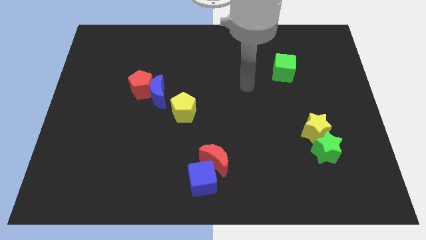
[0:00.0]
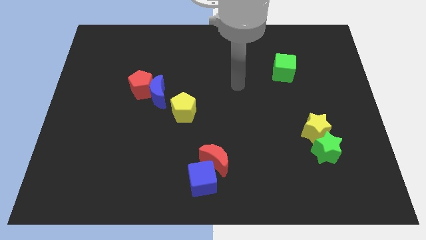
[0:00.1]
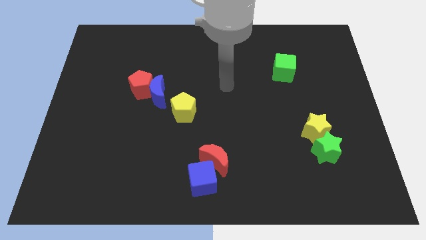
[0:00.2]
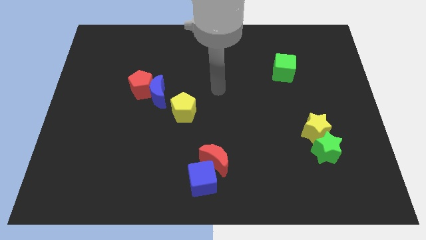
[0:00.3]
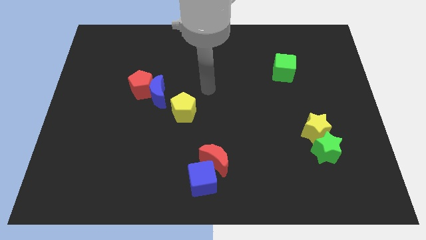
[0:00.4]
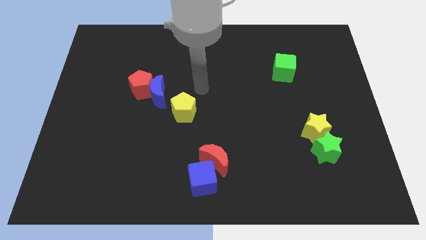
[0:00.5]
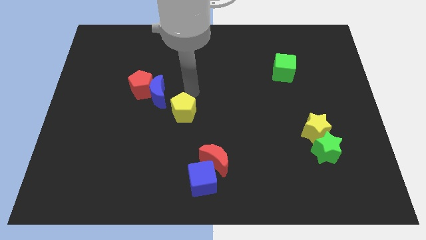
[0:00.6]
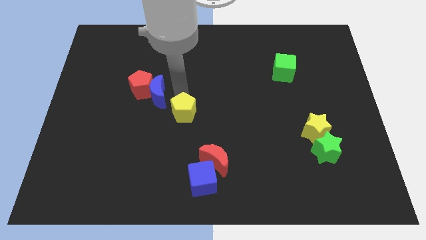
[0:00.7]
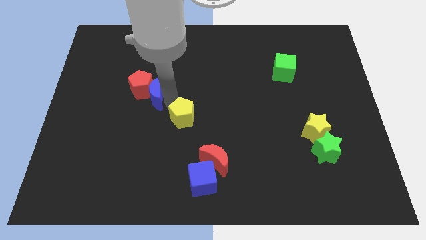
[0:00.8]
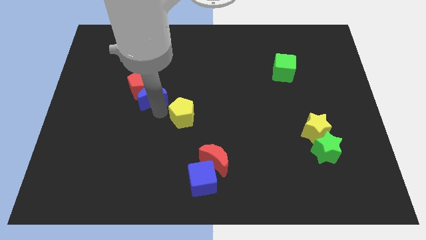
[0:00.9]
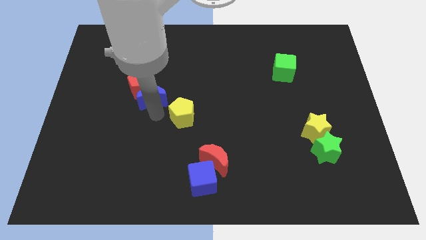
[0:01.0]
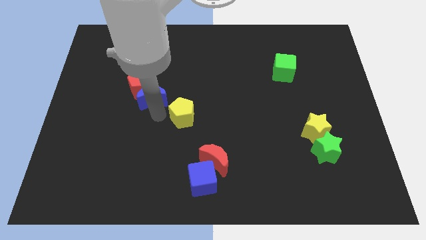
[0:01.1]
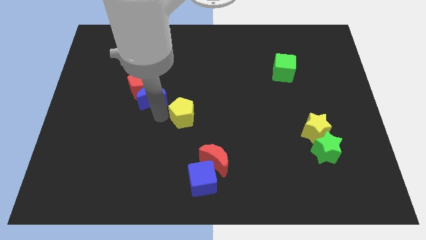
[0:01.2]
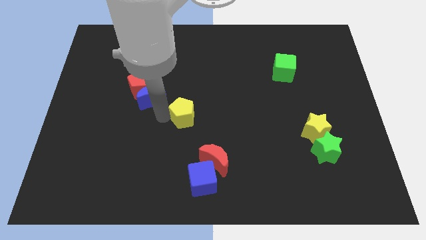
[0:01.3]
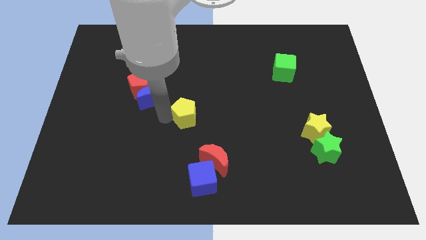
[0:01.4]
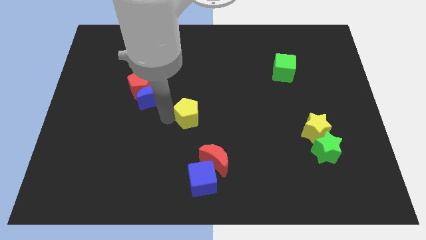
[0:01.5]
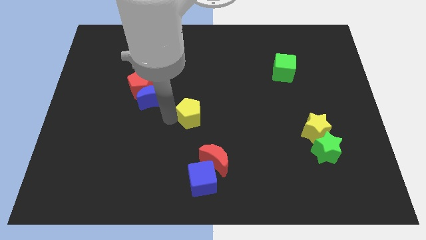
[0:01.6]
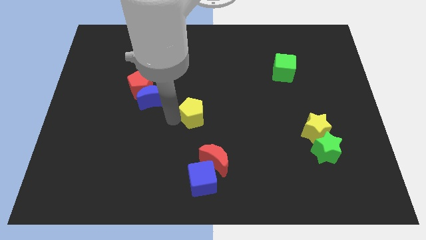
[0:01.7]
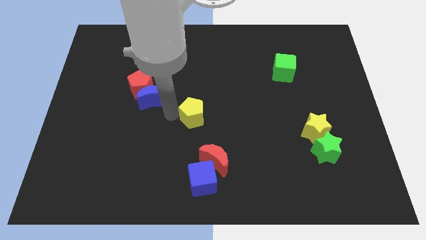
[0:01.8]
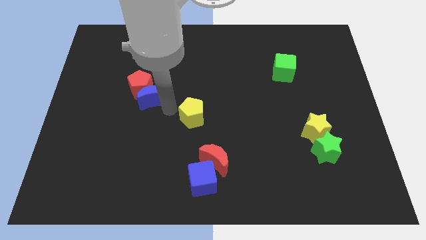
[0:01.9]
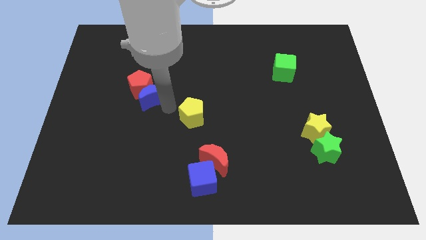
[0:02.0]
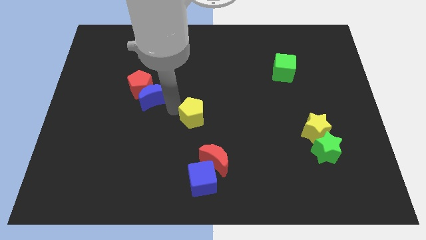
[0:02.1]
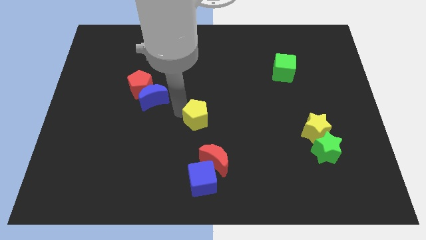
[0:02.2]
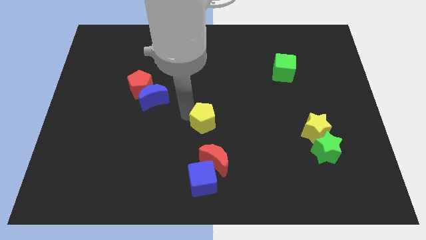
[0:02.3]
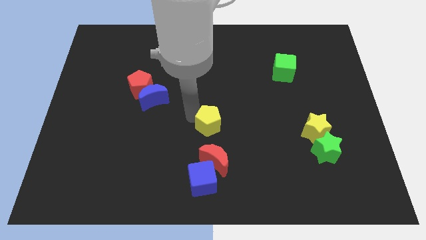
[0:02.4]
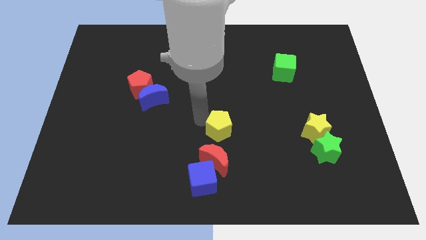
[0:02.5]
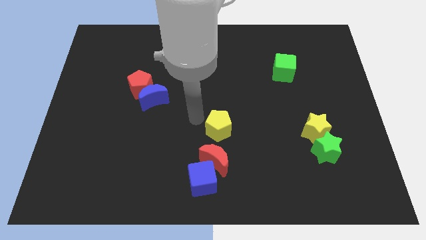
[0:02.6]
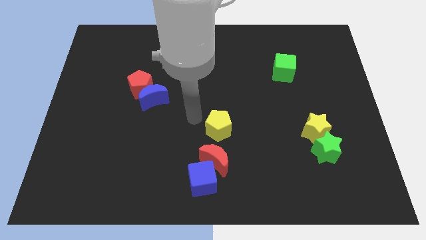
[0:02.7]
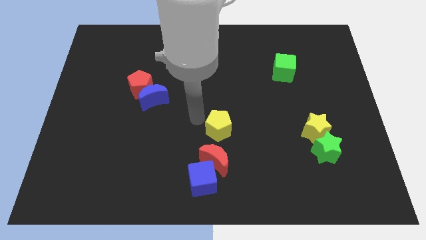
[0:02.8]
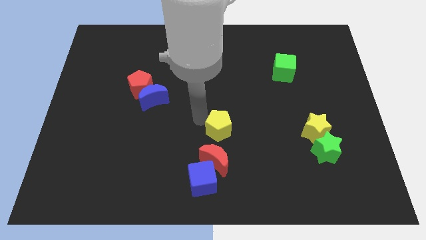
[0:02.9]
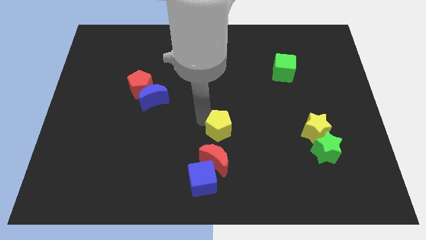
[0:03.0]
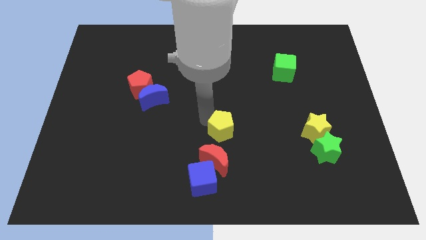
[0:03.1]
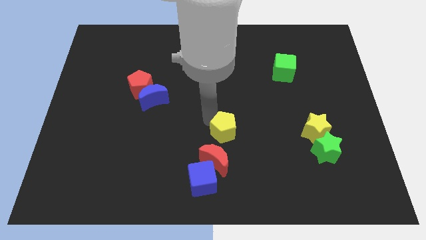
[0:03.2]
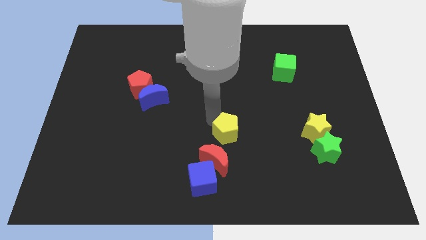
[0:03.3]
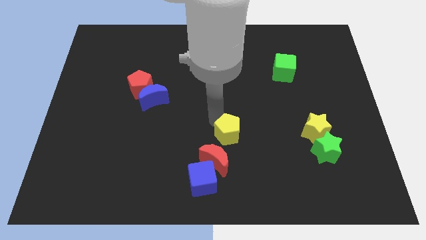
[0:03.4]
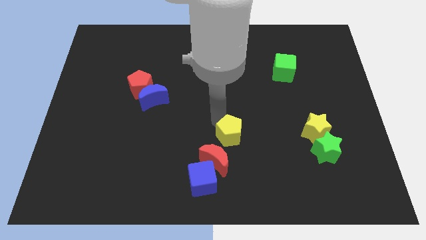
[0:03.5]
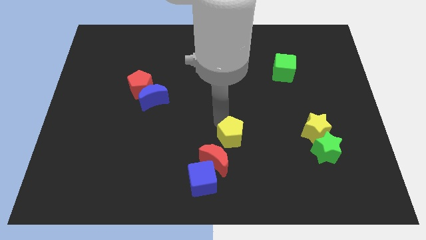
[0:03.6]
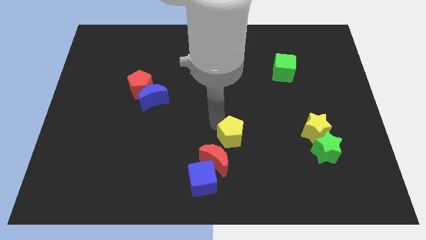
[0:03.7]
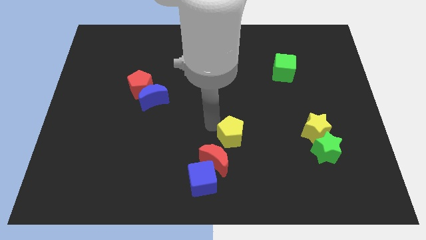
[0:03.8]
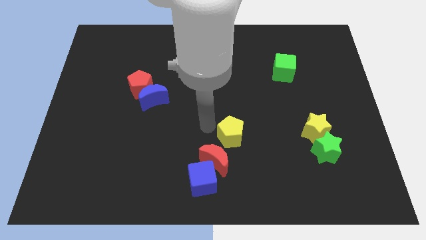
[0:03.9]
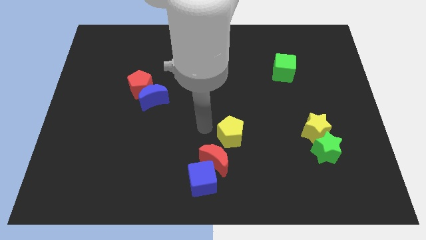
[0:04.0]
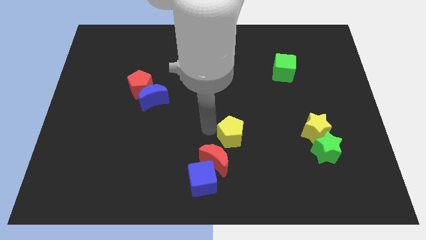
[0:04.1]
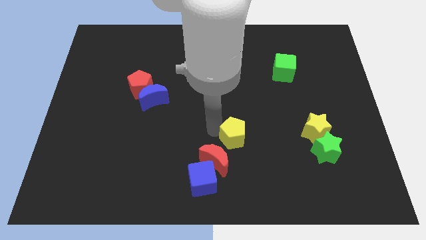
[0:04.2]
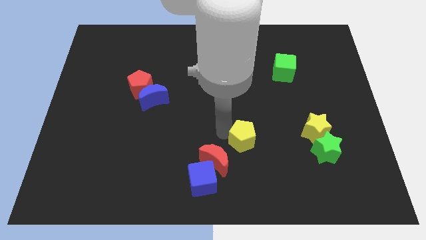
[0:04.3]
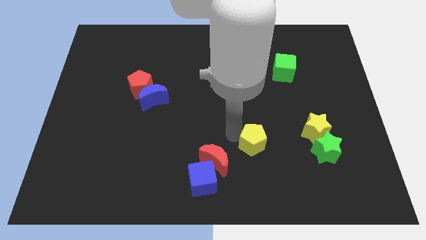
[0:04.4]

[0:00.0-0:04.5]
slide the yellow pentagon left of the green star

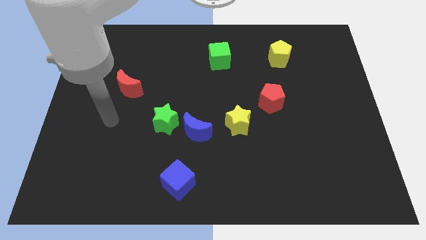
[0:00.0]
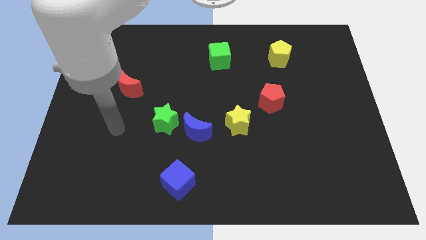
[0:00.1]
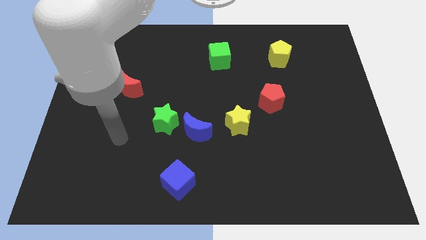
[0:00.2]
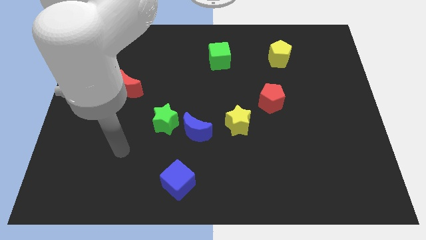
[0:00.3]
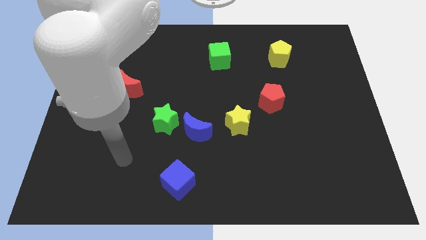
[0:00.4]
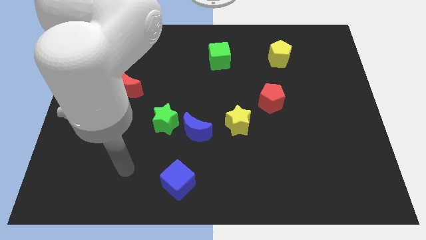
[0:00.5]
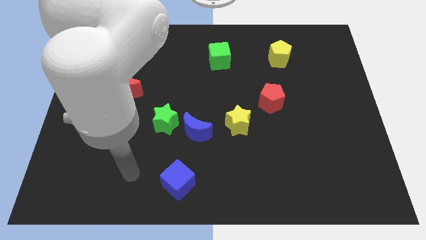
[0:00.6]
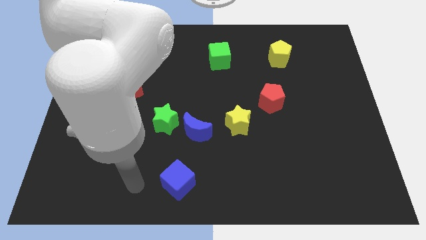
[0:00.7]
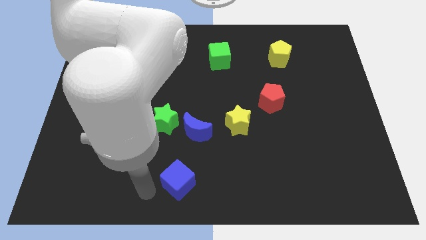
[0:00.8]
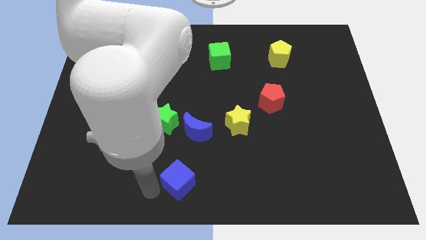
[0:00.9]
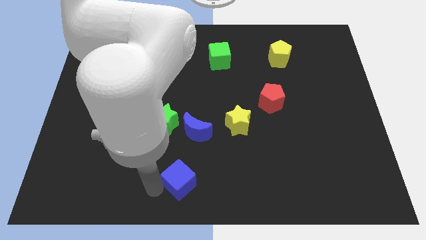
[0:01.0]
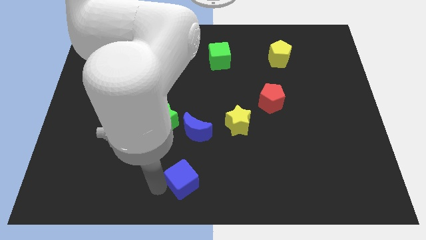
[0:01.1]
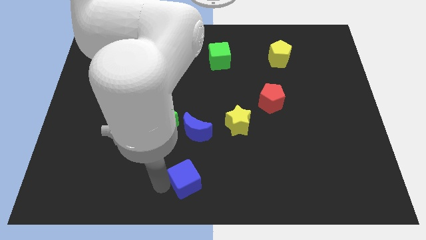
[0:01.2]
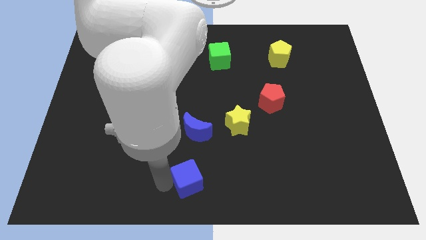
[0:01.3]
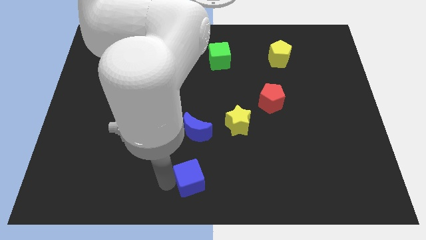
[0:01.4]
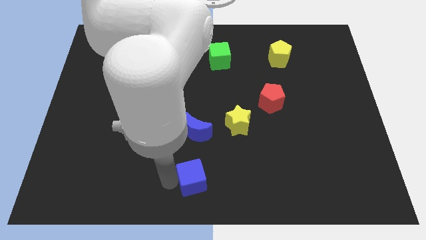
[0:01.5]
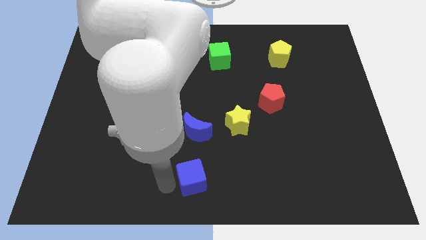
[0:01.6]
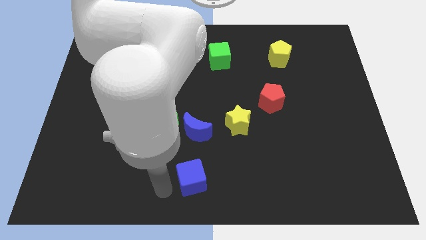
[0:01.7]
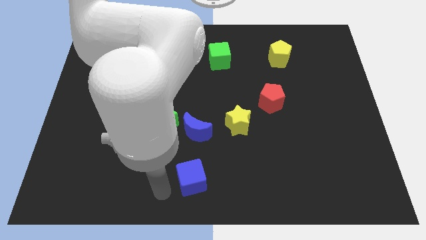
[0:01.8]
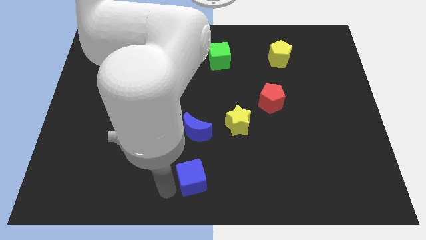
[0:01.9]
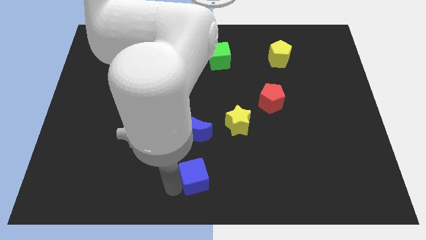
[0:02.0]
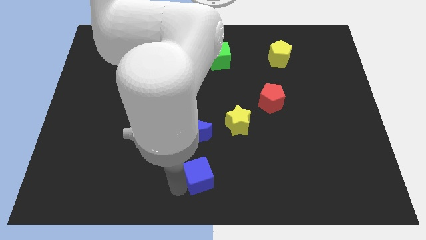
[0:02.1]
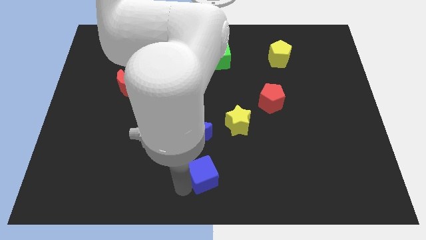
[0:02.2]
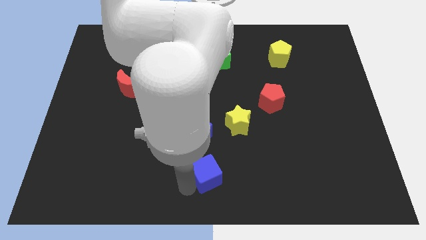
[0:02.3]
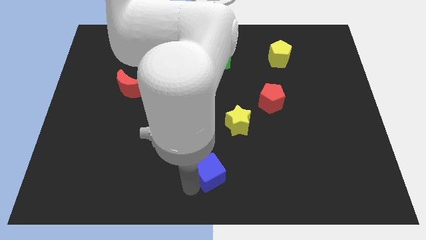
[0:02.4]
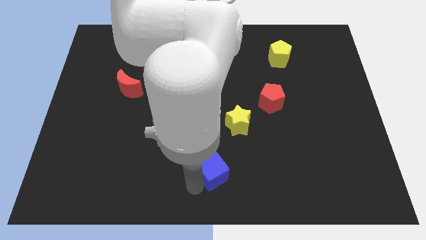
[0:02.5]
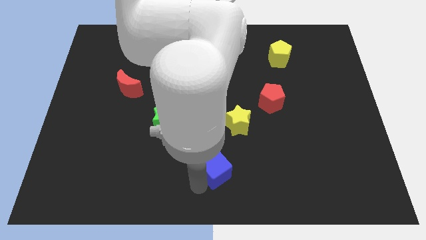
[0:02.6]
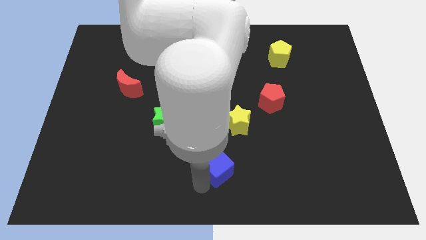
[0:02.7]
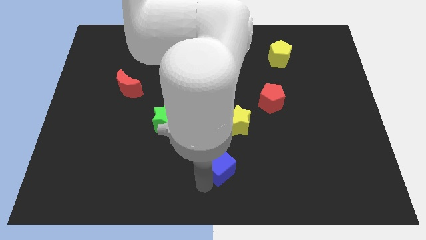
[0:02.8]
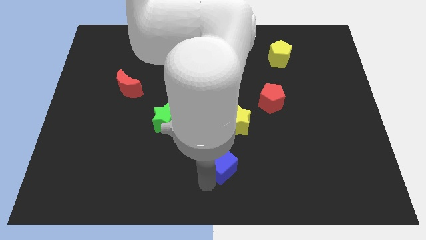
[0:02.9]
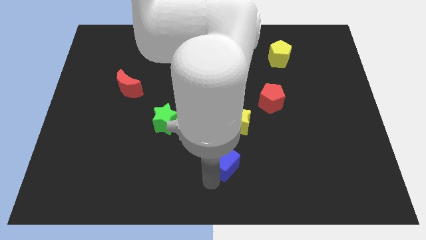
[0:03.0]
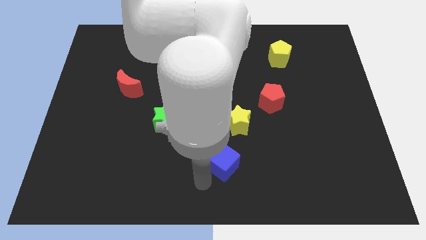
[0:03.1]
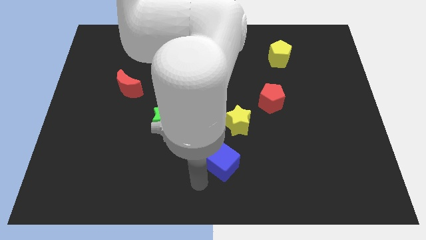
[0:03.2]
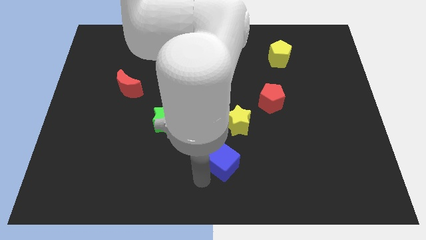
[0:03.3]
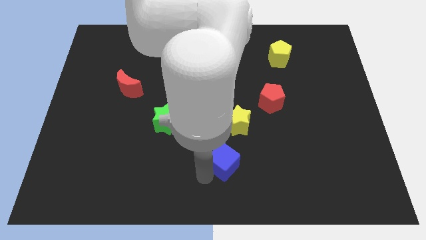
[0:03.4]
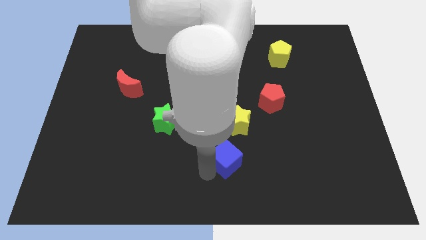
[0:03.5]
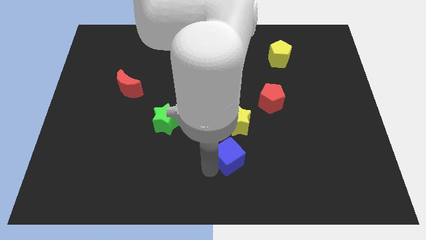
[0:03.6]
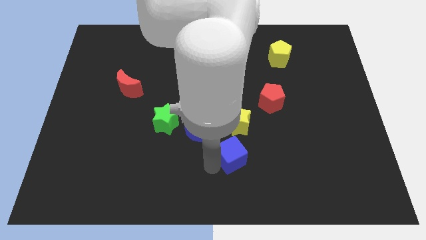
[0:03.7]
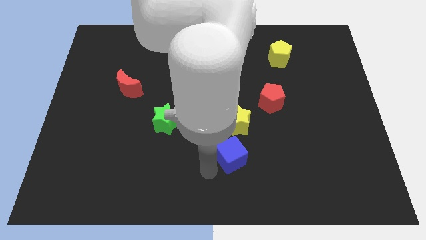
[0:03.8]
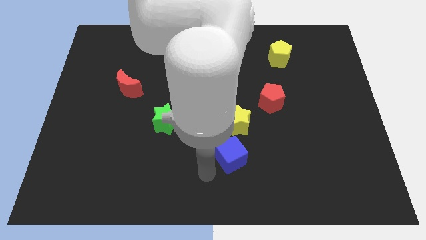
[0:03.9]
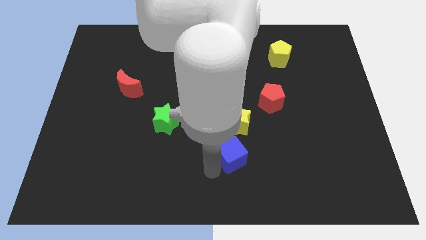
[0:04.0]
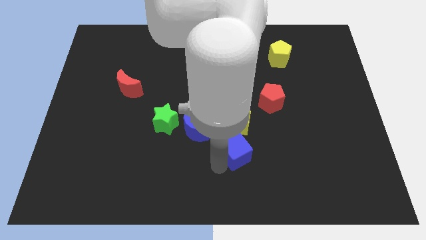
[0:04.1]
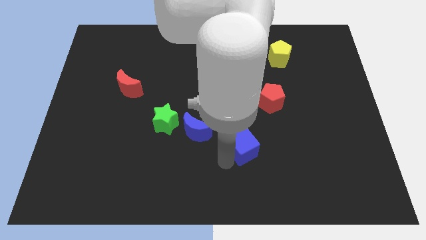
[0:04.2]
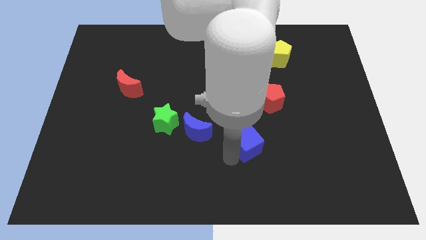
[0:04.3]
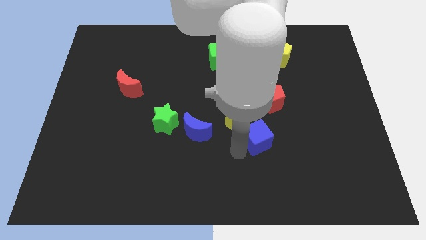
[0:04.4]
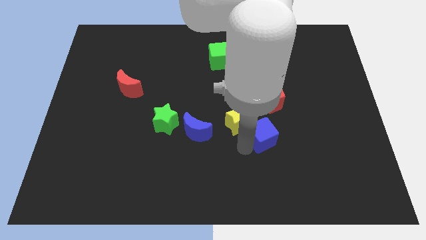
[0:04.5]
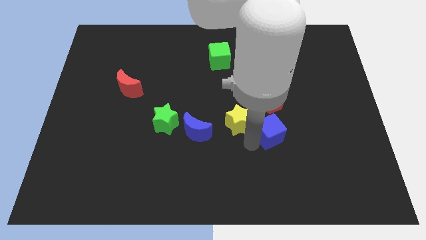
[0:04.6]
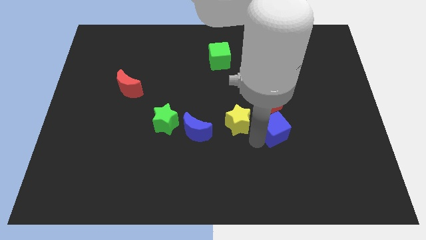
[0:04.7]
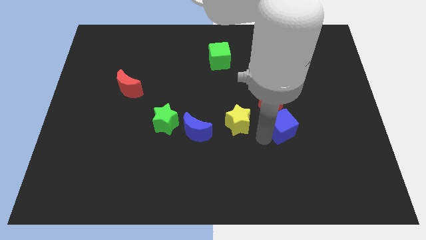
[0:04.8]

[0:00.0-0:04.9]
push the blue cube to the bottom right side of the red pentagon
